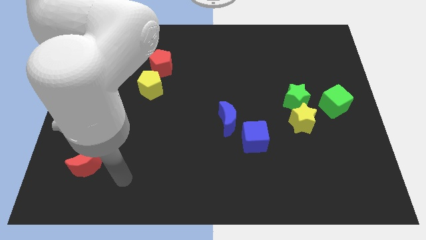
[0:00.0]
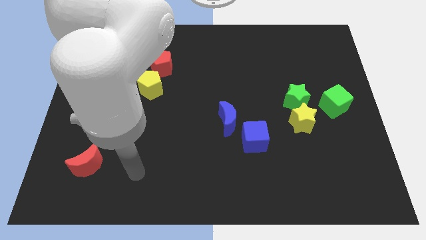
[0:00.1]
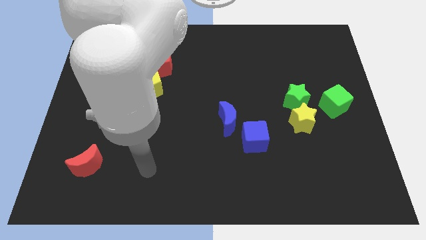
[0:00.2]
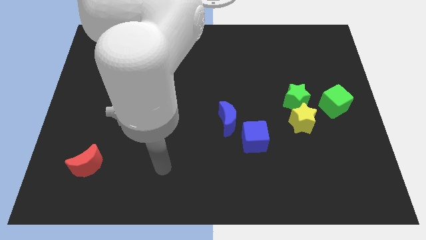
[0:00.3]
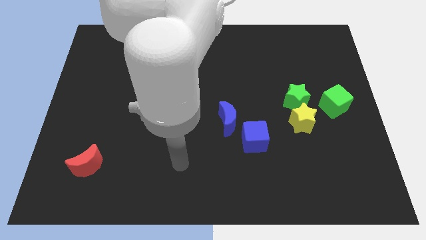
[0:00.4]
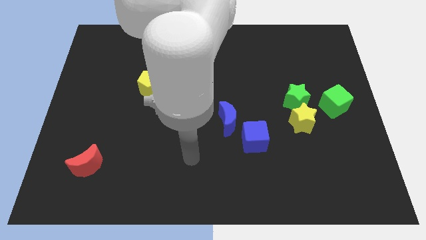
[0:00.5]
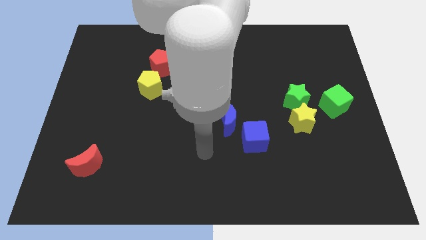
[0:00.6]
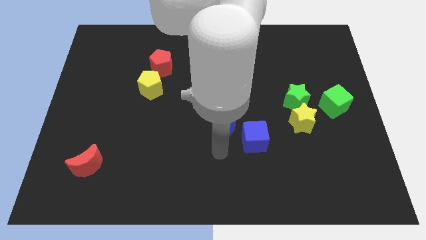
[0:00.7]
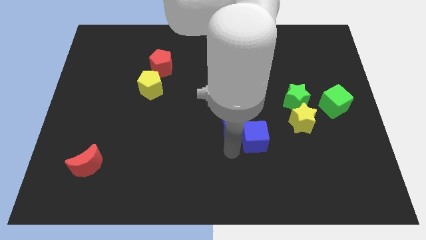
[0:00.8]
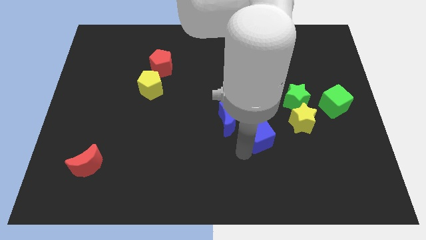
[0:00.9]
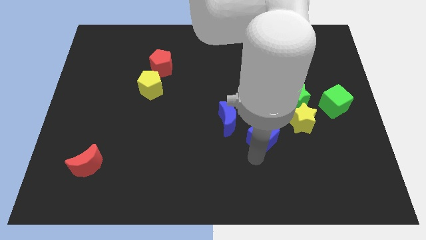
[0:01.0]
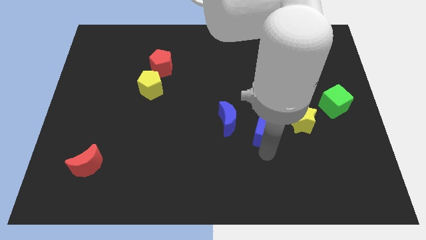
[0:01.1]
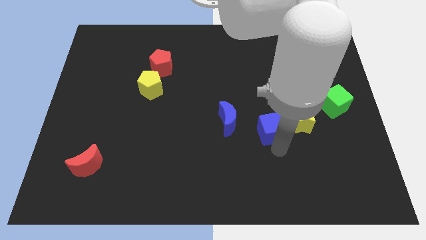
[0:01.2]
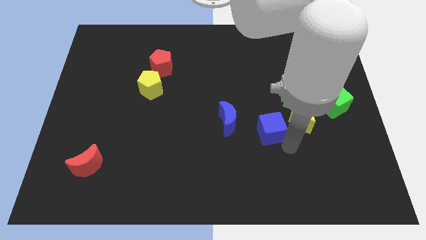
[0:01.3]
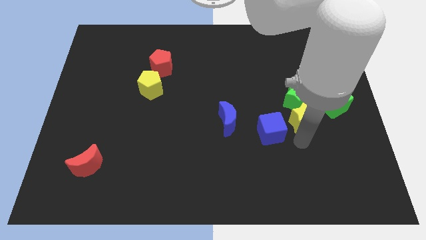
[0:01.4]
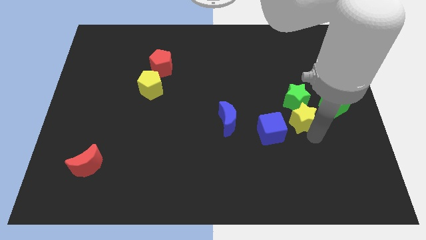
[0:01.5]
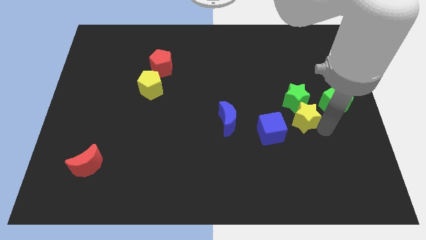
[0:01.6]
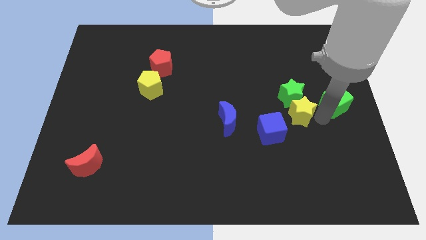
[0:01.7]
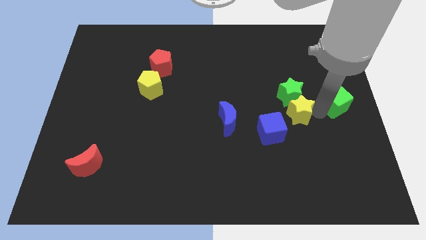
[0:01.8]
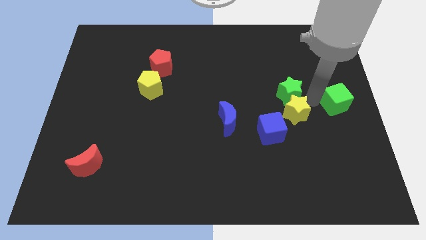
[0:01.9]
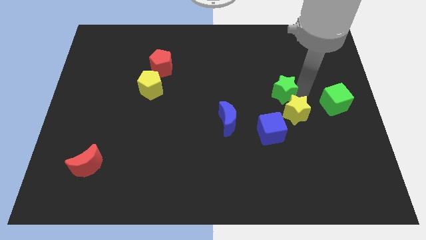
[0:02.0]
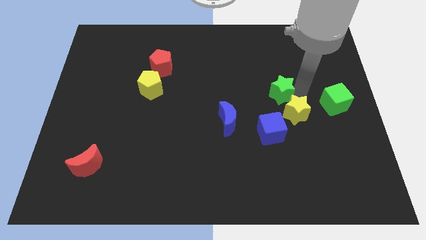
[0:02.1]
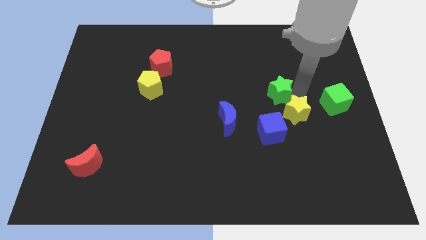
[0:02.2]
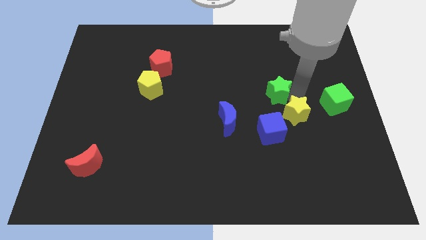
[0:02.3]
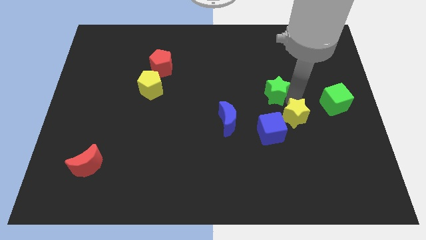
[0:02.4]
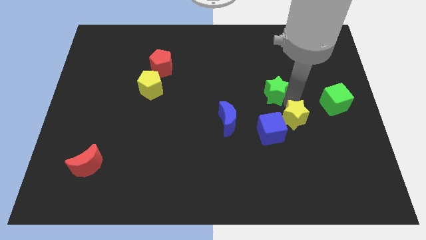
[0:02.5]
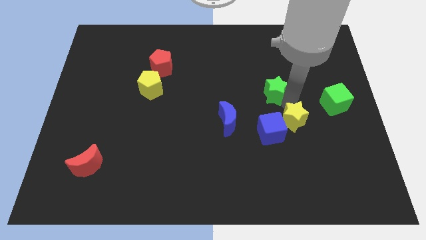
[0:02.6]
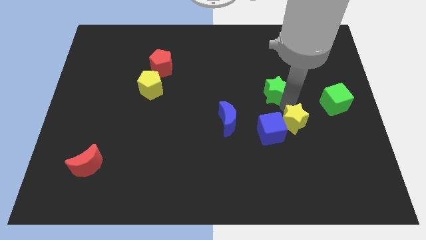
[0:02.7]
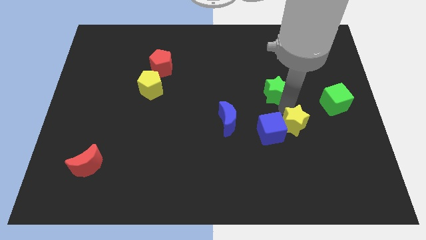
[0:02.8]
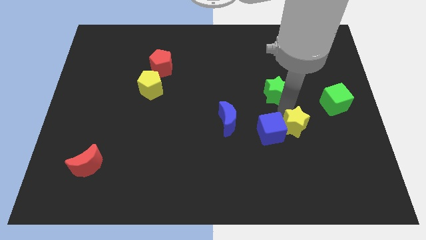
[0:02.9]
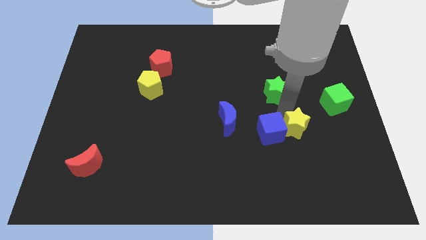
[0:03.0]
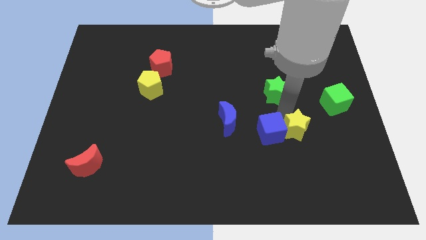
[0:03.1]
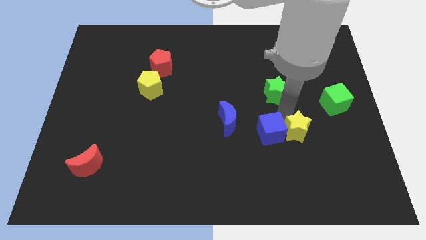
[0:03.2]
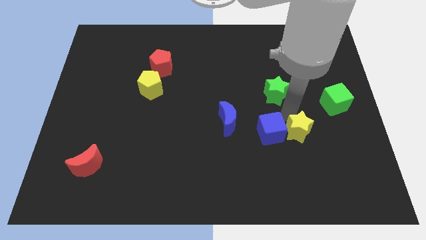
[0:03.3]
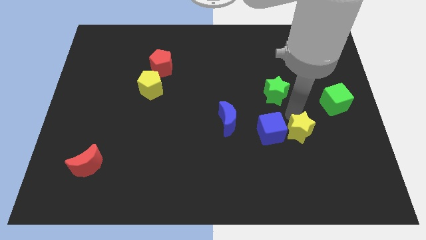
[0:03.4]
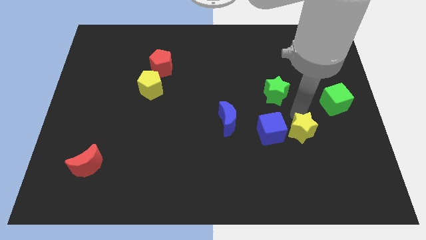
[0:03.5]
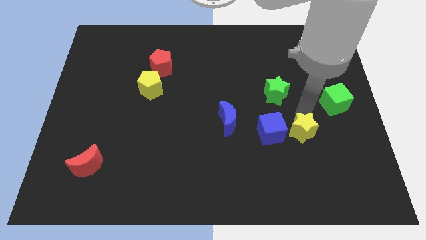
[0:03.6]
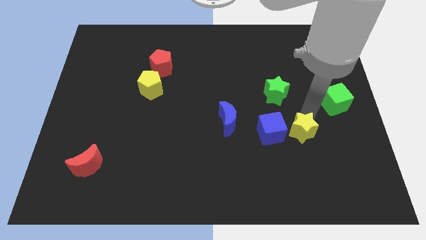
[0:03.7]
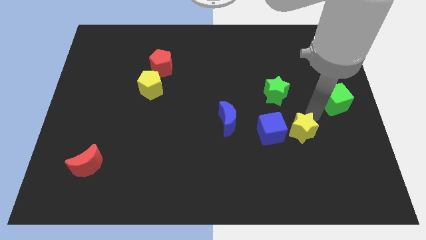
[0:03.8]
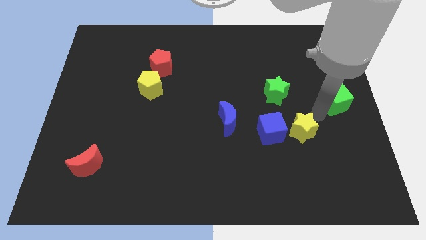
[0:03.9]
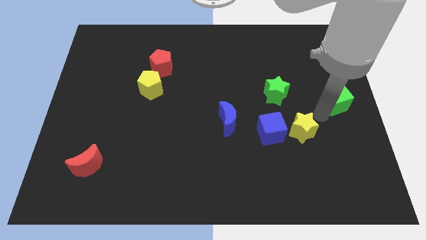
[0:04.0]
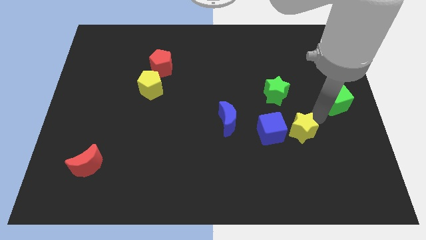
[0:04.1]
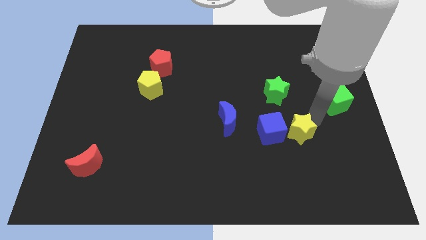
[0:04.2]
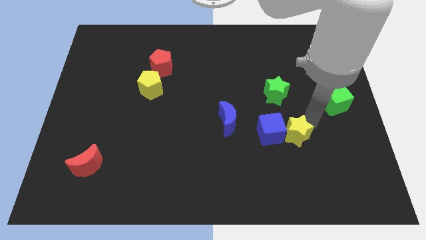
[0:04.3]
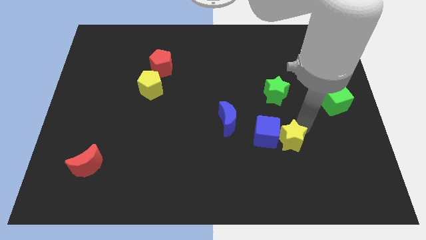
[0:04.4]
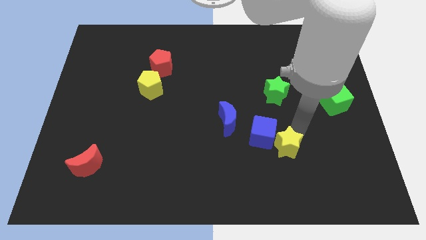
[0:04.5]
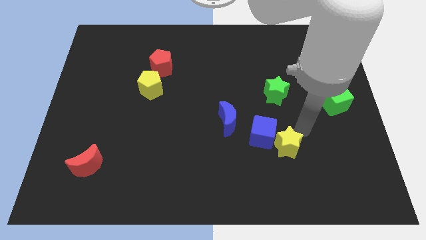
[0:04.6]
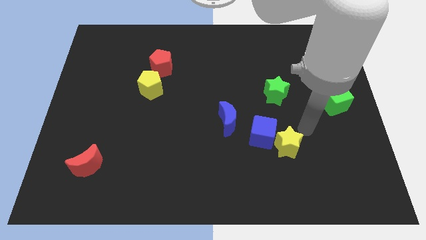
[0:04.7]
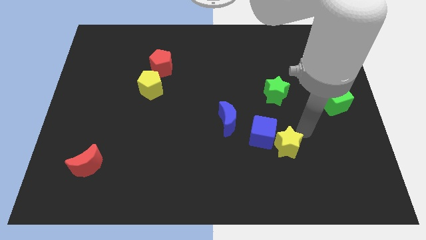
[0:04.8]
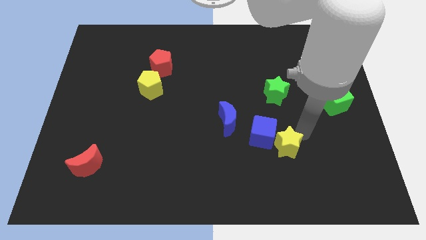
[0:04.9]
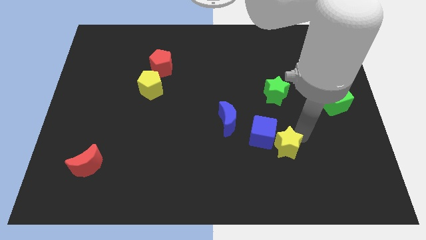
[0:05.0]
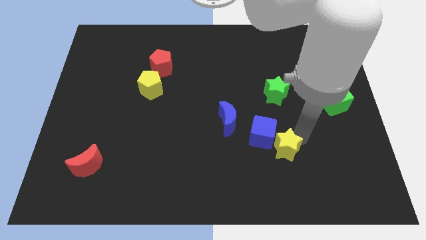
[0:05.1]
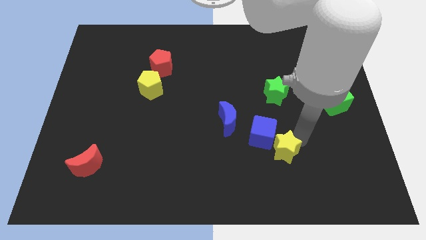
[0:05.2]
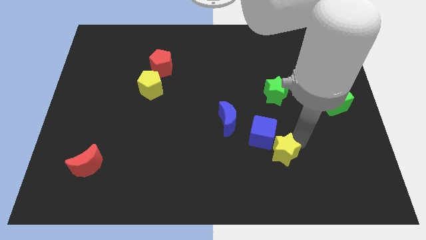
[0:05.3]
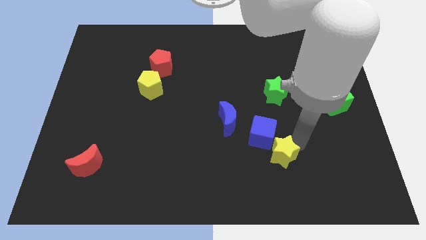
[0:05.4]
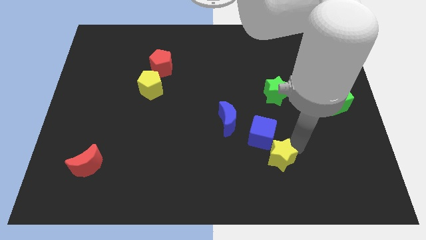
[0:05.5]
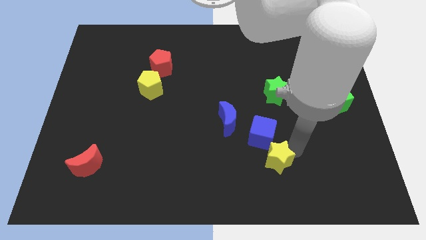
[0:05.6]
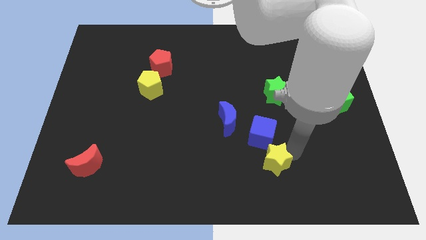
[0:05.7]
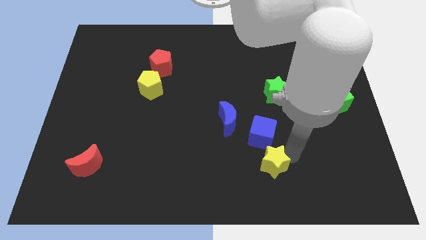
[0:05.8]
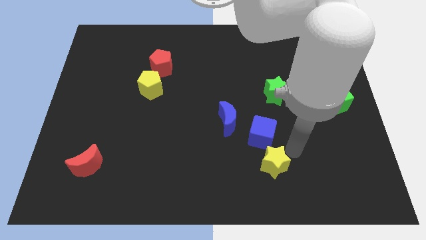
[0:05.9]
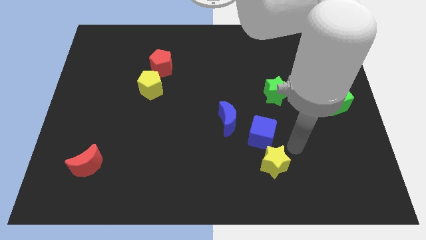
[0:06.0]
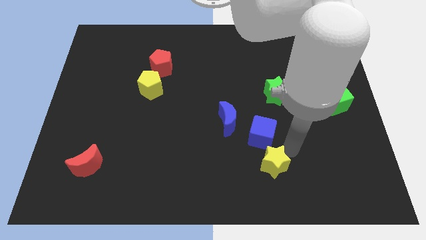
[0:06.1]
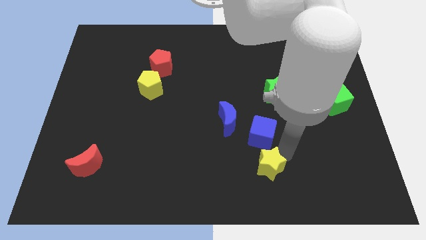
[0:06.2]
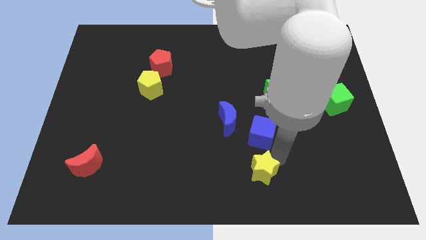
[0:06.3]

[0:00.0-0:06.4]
put the yellow star to the bottom

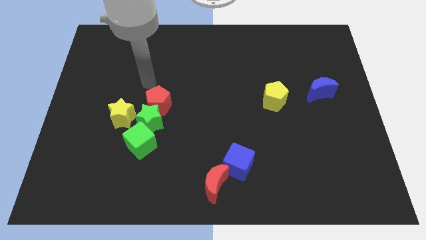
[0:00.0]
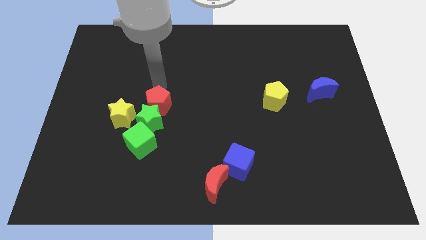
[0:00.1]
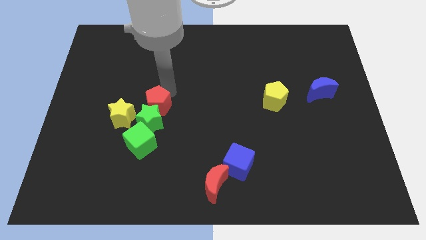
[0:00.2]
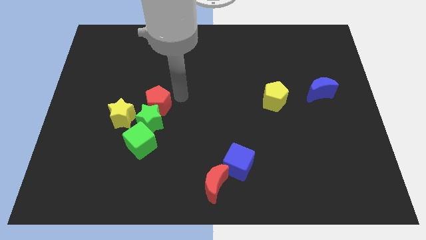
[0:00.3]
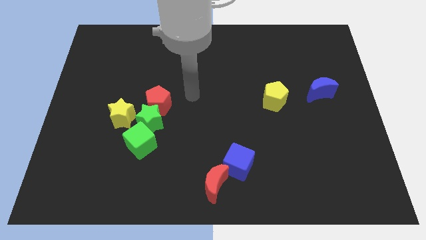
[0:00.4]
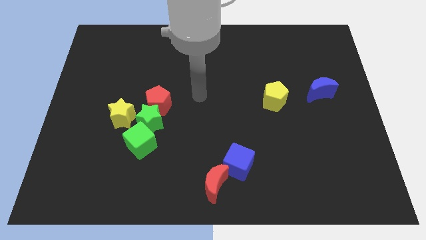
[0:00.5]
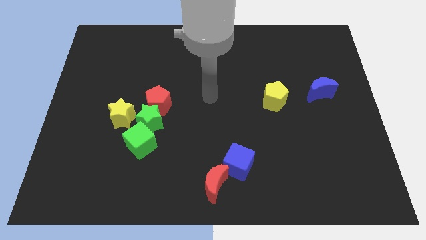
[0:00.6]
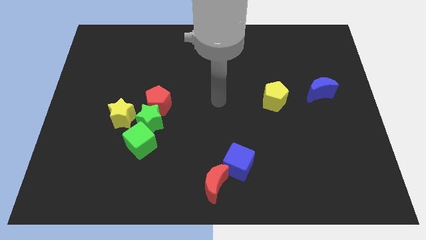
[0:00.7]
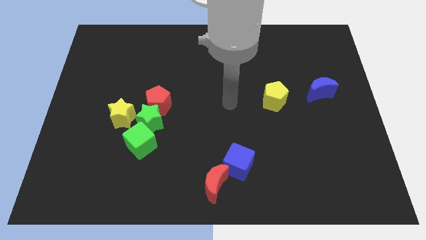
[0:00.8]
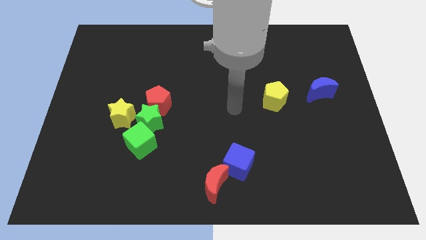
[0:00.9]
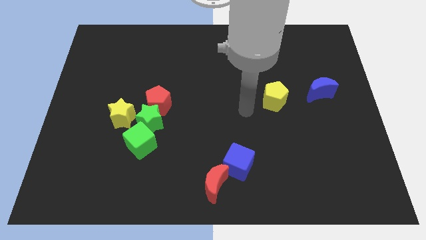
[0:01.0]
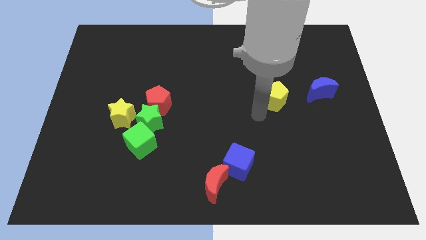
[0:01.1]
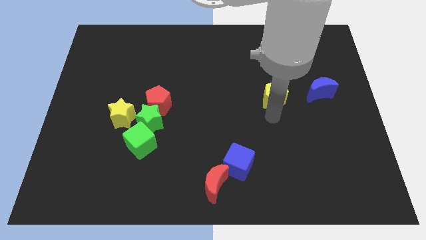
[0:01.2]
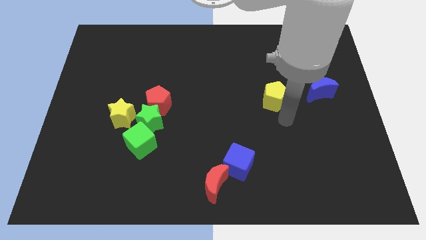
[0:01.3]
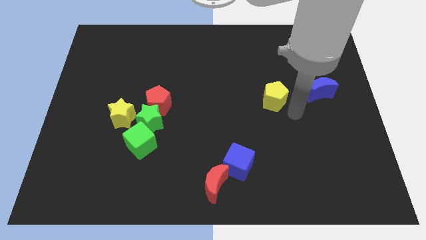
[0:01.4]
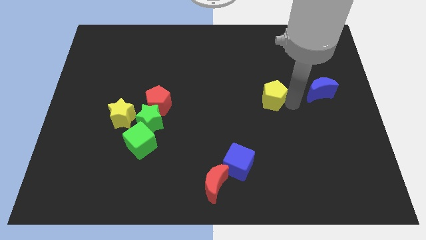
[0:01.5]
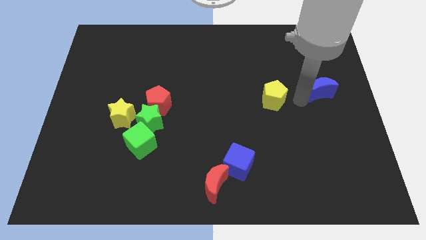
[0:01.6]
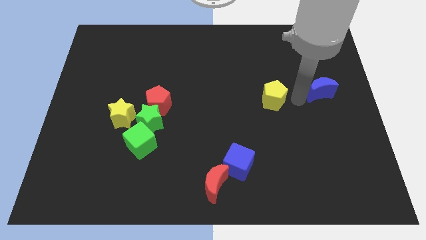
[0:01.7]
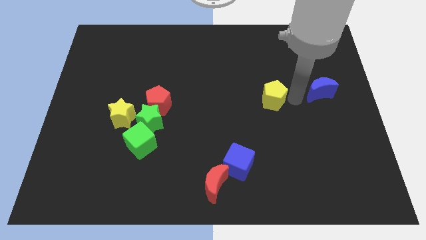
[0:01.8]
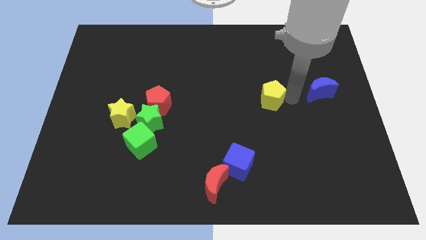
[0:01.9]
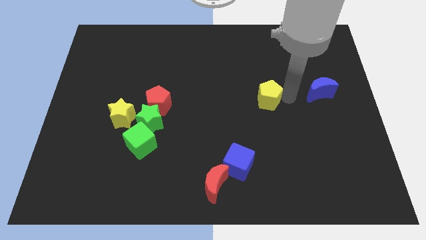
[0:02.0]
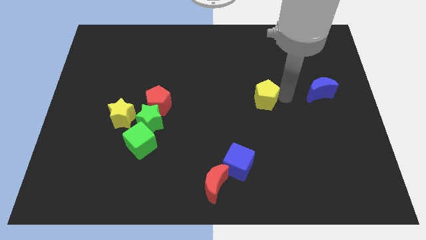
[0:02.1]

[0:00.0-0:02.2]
move the yellow pentagon to the middle of the board
